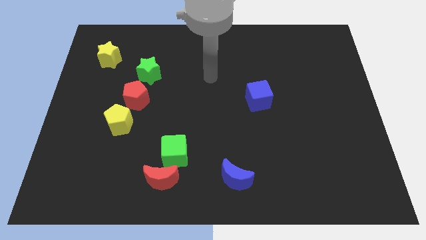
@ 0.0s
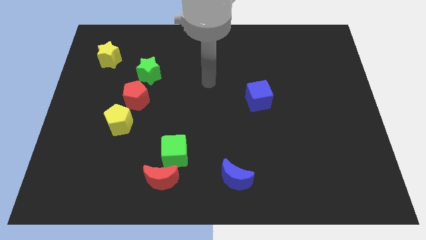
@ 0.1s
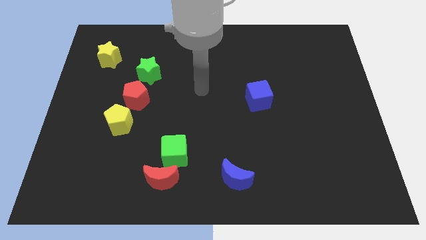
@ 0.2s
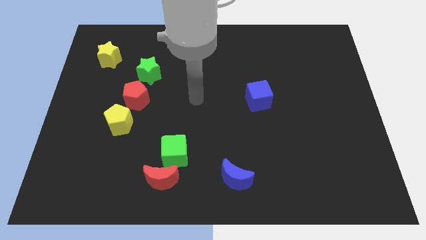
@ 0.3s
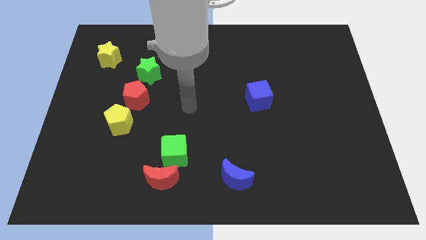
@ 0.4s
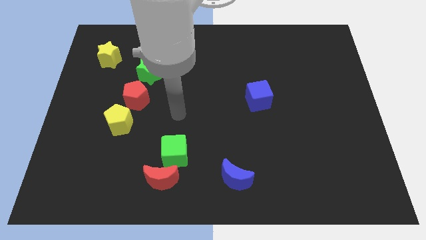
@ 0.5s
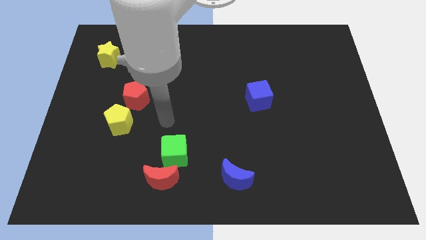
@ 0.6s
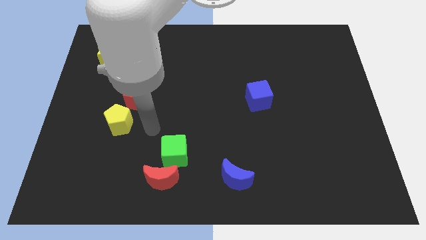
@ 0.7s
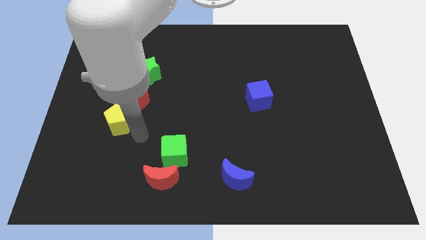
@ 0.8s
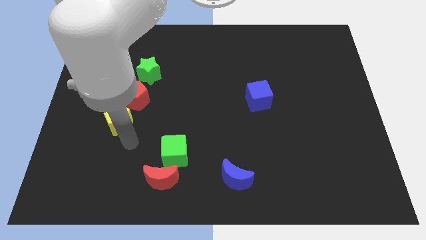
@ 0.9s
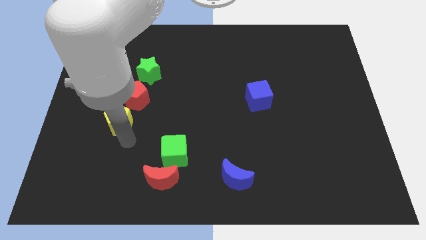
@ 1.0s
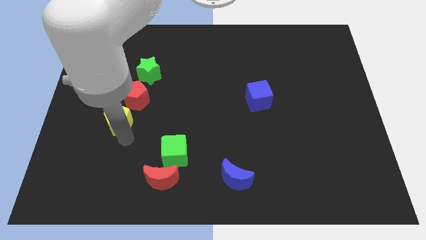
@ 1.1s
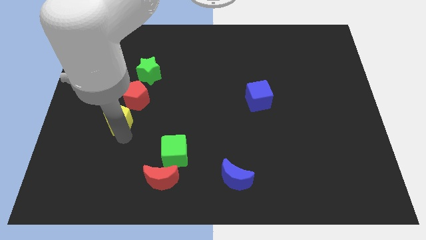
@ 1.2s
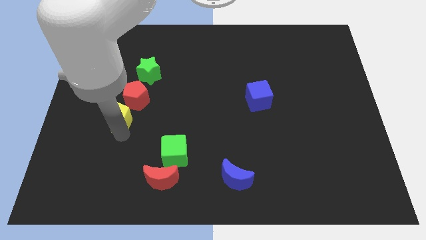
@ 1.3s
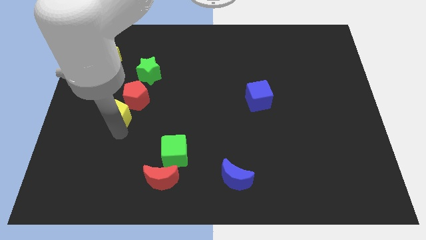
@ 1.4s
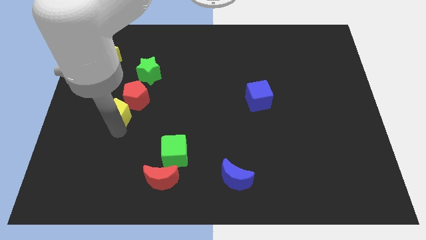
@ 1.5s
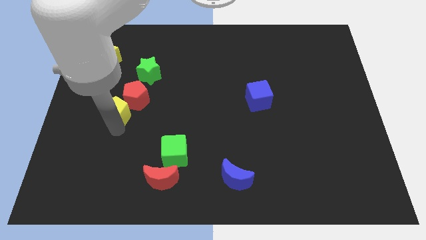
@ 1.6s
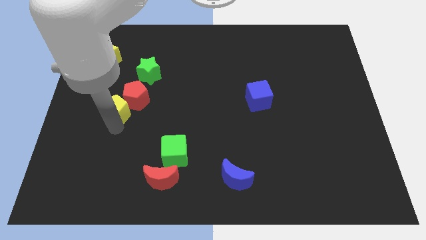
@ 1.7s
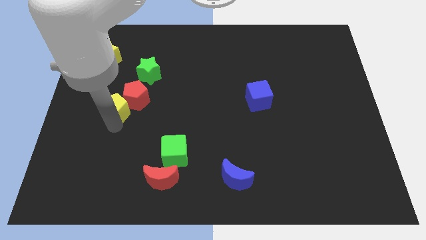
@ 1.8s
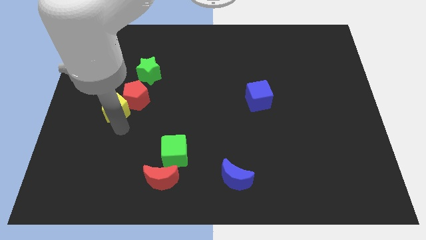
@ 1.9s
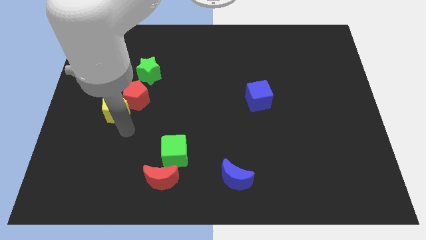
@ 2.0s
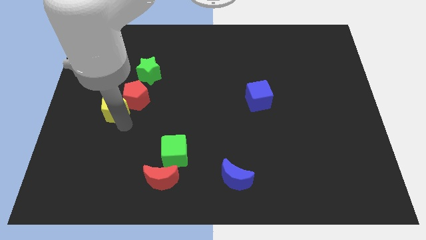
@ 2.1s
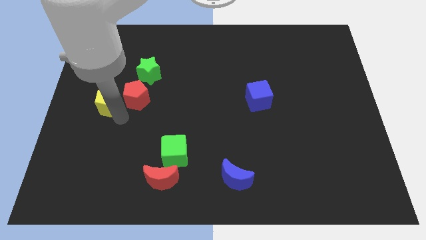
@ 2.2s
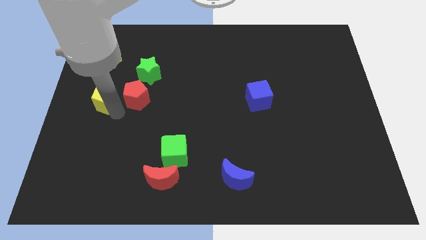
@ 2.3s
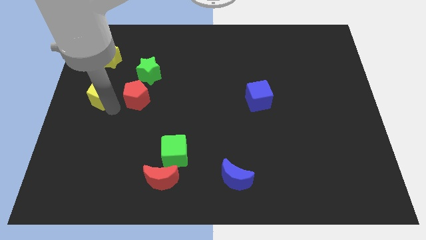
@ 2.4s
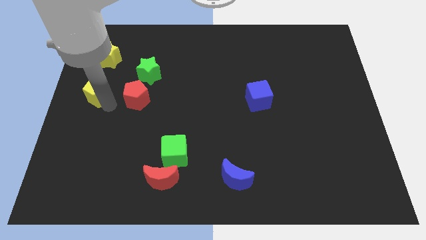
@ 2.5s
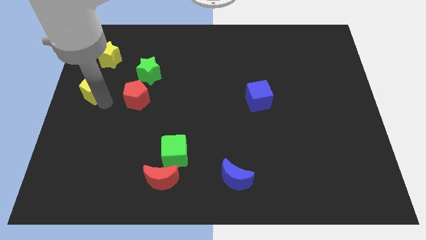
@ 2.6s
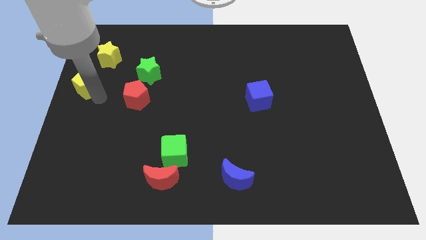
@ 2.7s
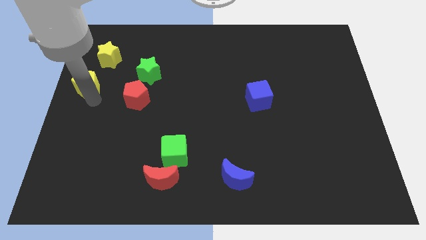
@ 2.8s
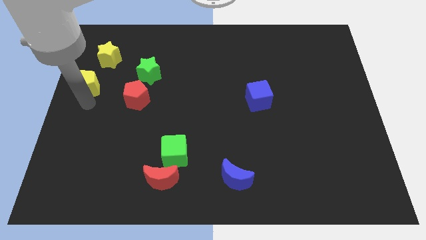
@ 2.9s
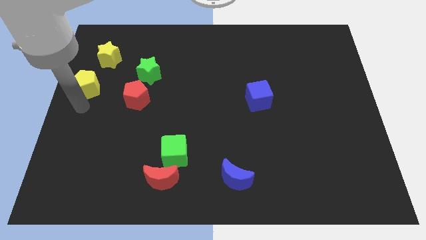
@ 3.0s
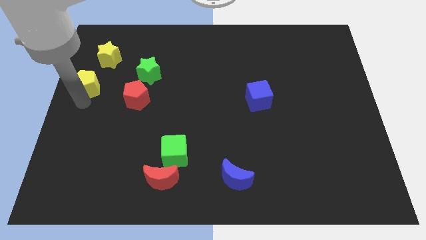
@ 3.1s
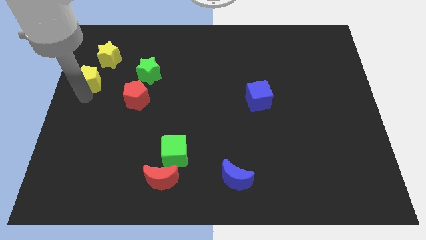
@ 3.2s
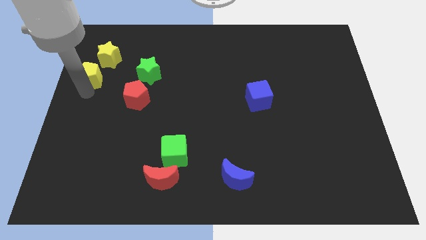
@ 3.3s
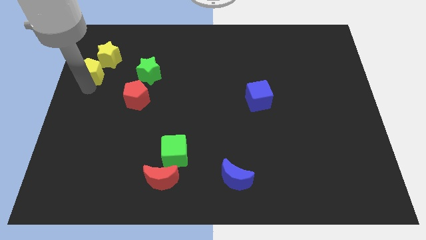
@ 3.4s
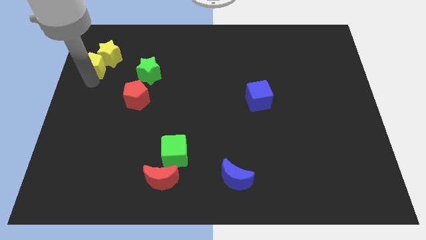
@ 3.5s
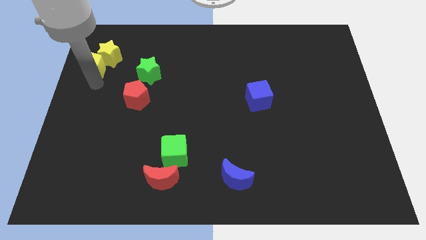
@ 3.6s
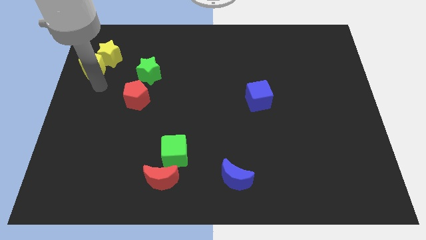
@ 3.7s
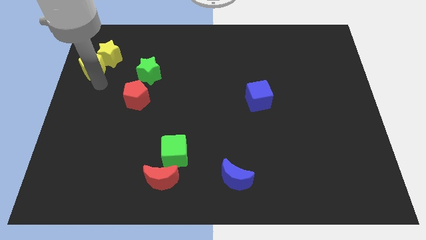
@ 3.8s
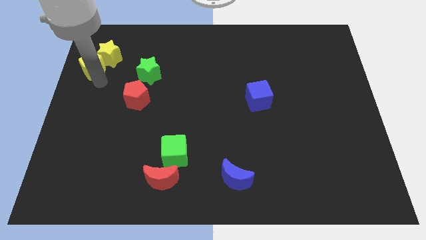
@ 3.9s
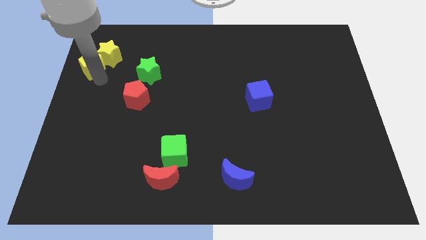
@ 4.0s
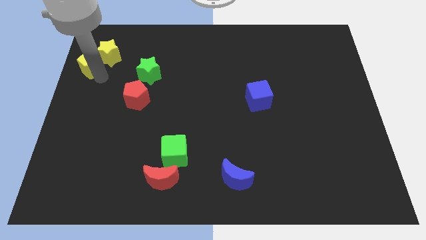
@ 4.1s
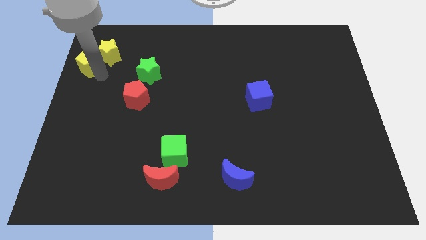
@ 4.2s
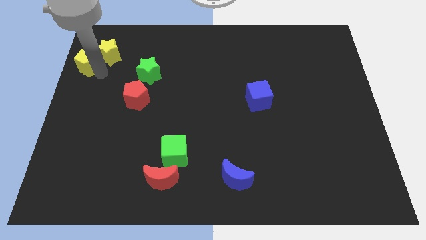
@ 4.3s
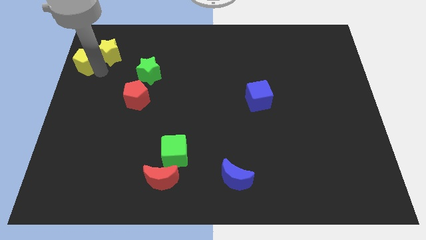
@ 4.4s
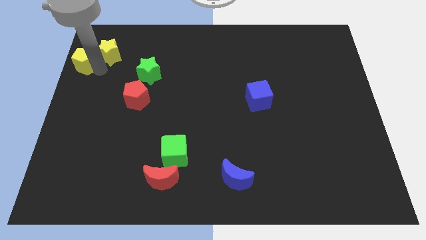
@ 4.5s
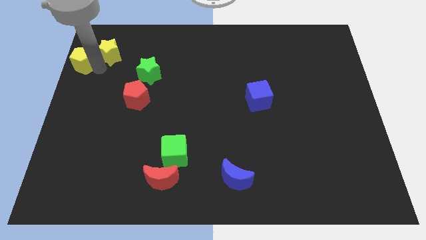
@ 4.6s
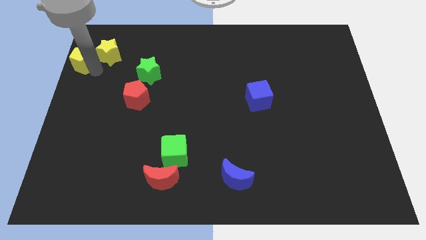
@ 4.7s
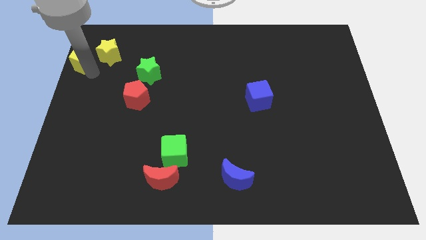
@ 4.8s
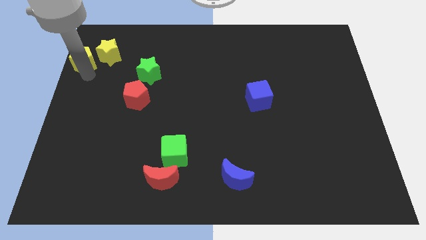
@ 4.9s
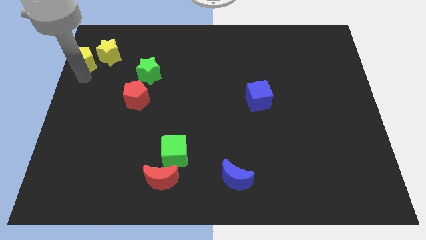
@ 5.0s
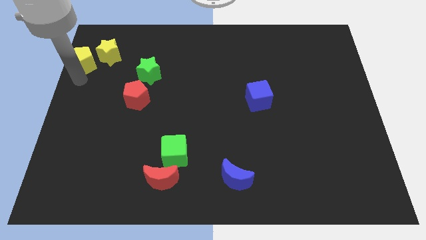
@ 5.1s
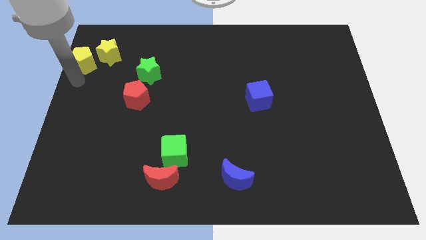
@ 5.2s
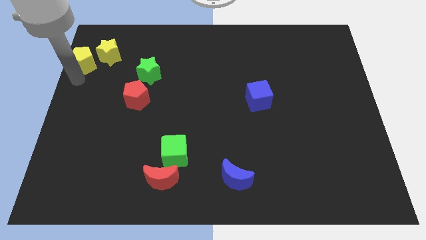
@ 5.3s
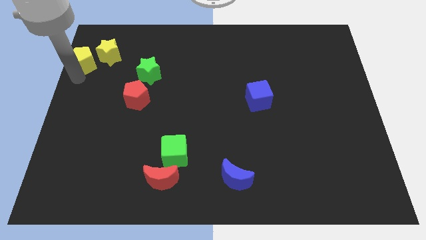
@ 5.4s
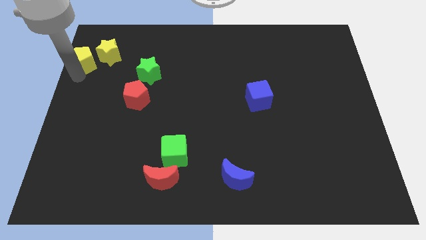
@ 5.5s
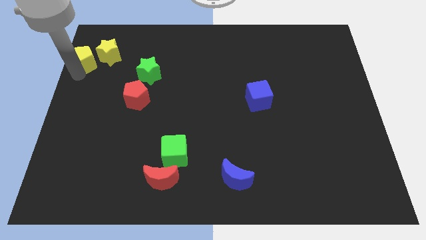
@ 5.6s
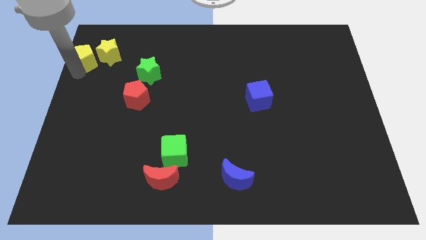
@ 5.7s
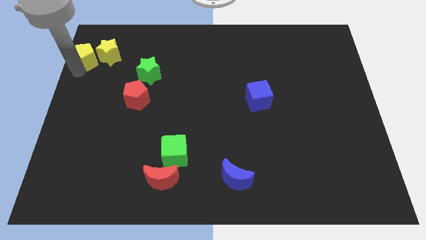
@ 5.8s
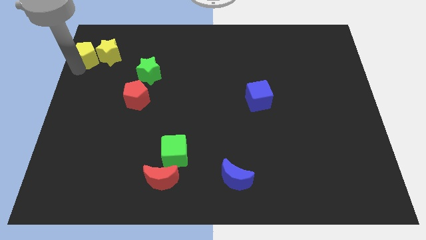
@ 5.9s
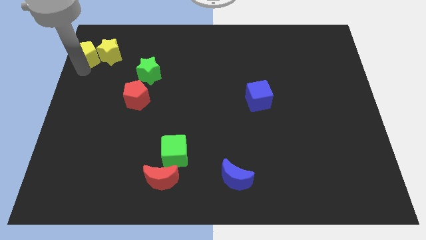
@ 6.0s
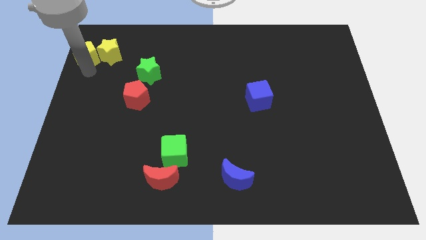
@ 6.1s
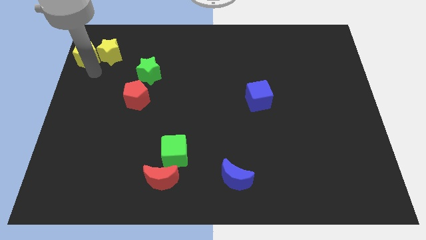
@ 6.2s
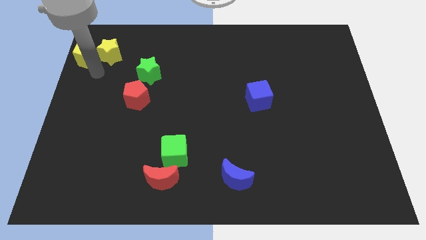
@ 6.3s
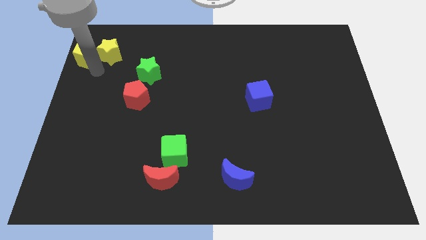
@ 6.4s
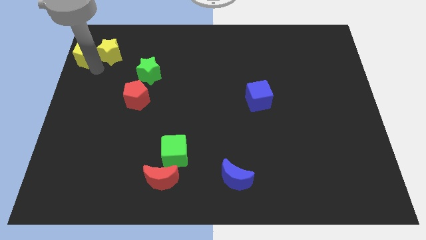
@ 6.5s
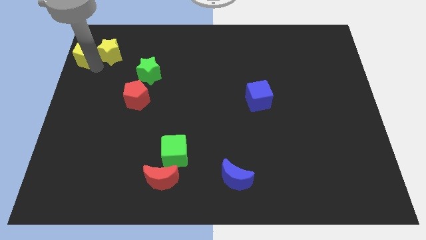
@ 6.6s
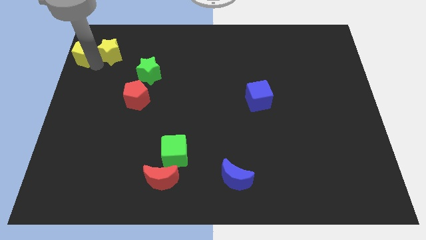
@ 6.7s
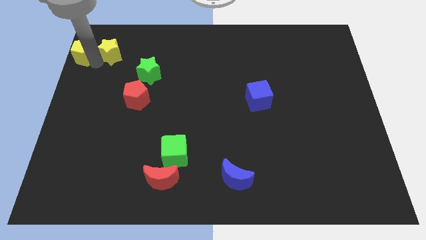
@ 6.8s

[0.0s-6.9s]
push the yellow pentagon to the upper left corner
